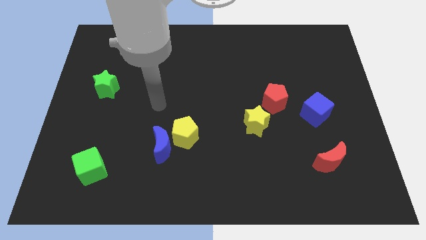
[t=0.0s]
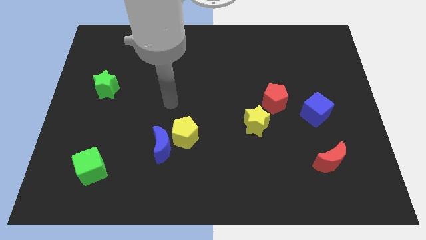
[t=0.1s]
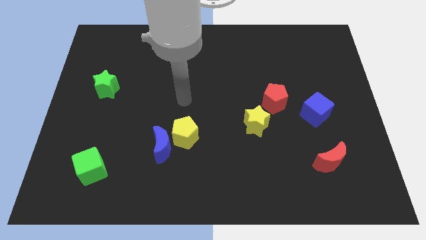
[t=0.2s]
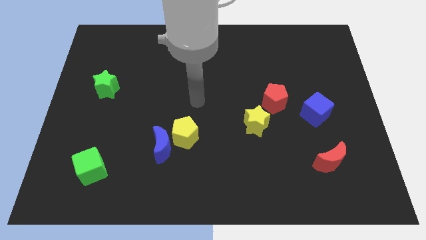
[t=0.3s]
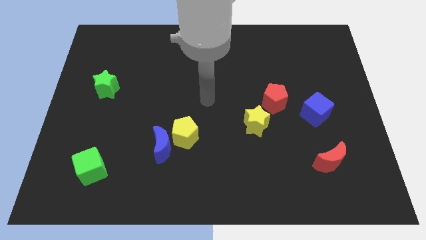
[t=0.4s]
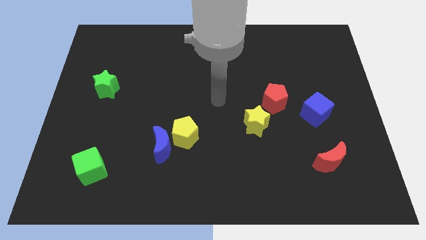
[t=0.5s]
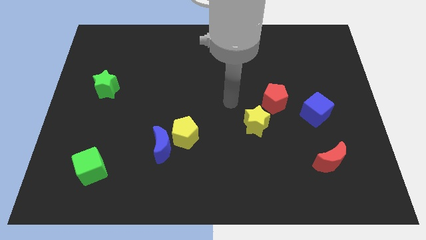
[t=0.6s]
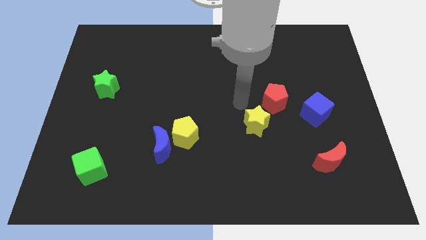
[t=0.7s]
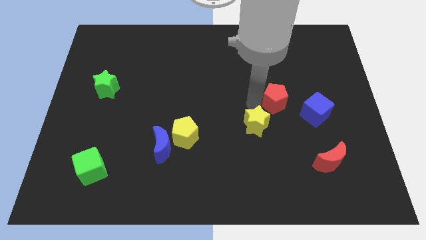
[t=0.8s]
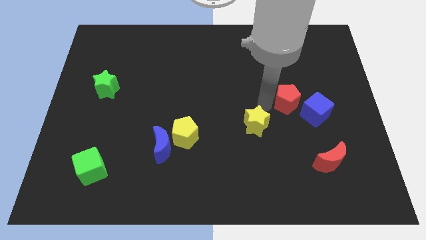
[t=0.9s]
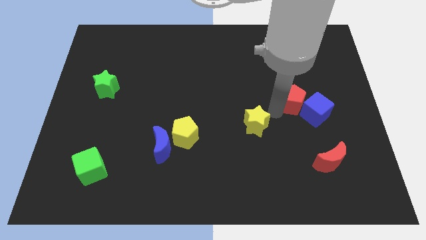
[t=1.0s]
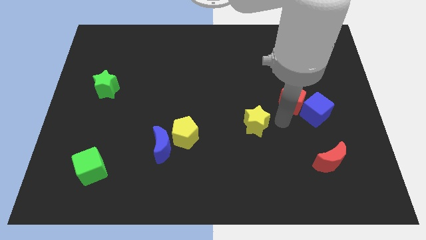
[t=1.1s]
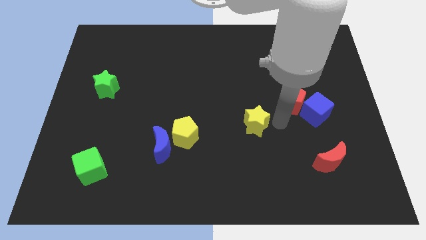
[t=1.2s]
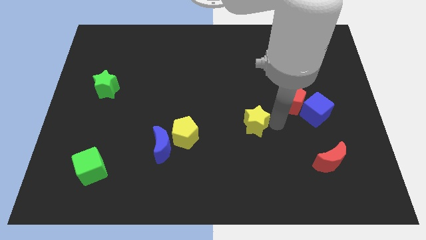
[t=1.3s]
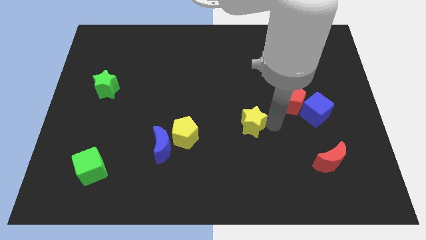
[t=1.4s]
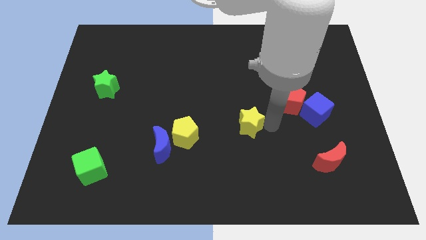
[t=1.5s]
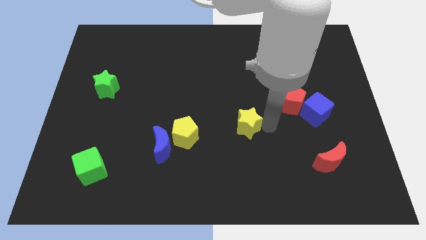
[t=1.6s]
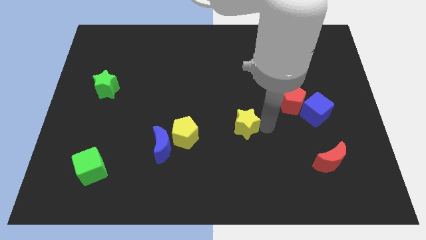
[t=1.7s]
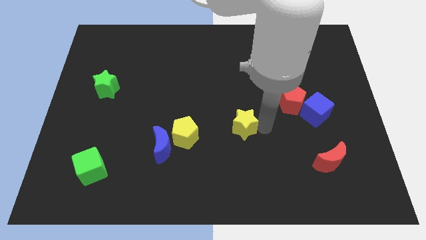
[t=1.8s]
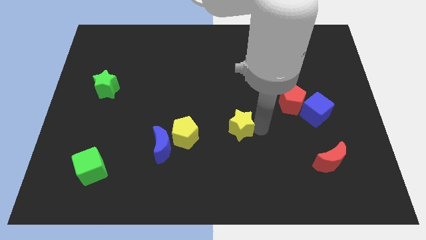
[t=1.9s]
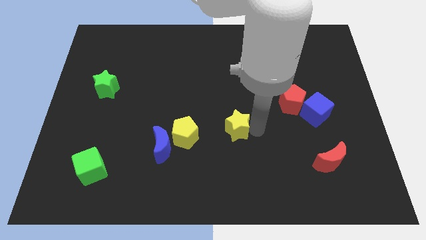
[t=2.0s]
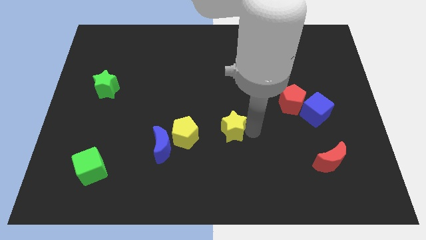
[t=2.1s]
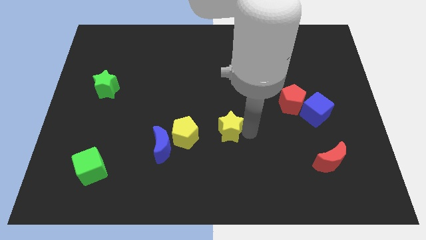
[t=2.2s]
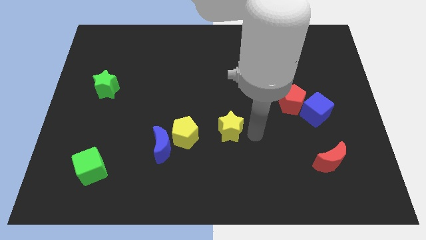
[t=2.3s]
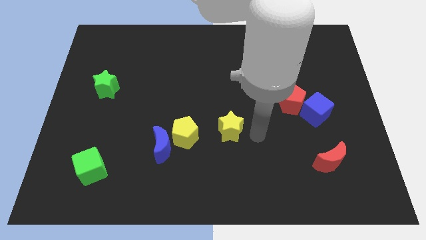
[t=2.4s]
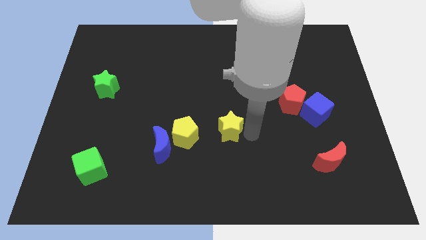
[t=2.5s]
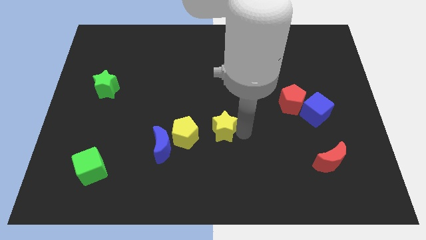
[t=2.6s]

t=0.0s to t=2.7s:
move the yellow star left a bit

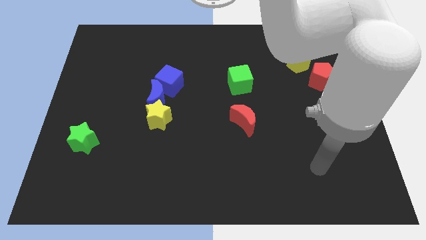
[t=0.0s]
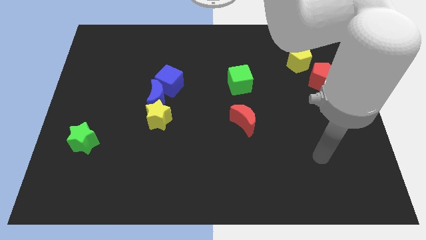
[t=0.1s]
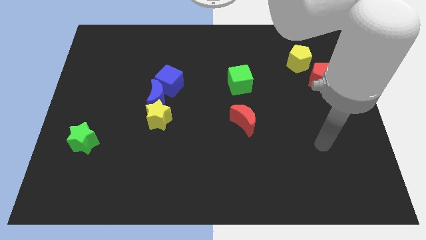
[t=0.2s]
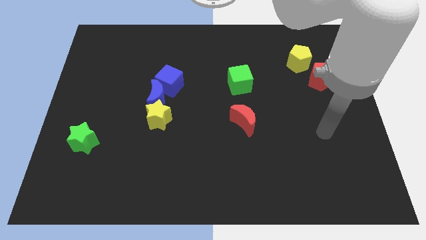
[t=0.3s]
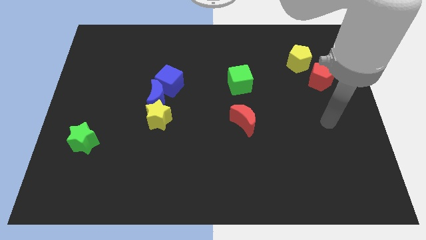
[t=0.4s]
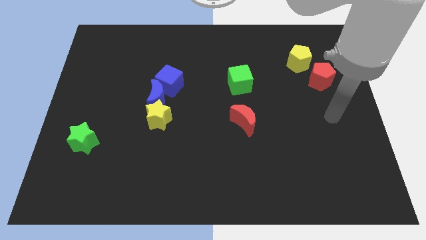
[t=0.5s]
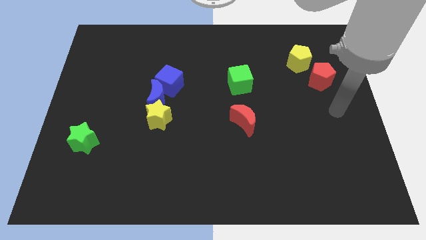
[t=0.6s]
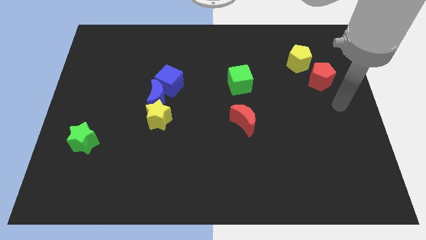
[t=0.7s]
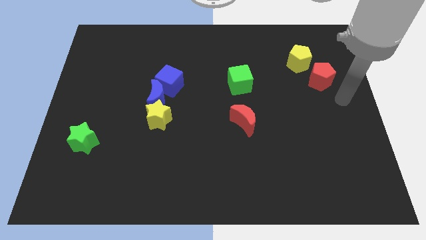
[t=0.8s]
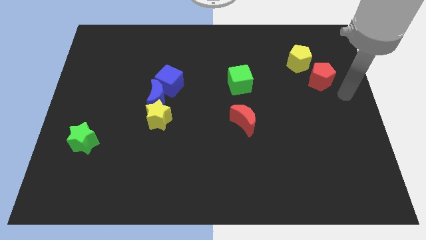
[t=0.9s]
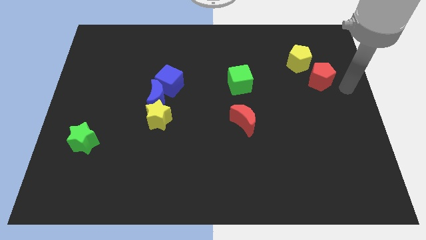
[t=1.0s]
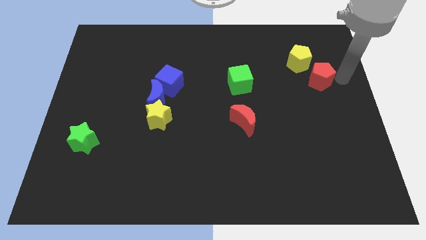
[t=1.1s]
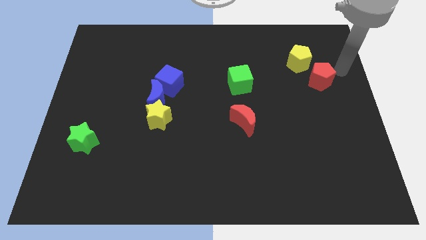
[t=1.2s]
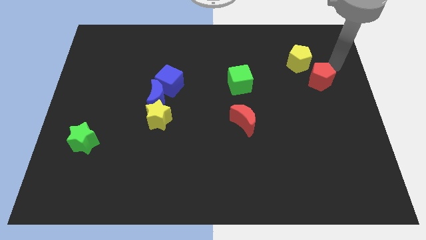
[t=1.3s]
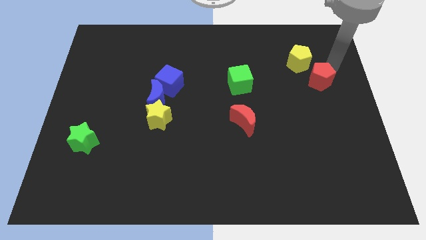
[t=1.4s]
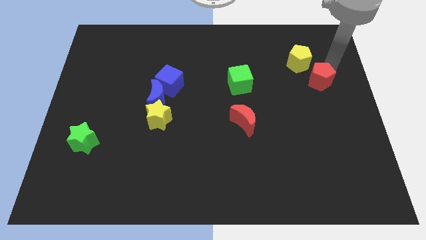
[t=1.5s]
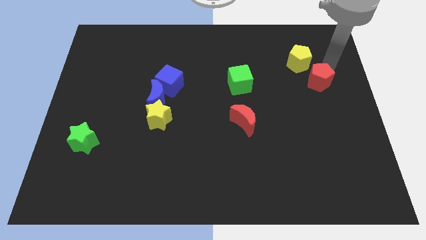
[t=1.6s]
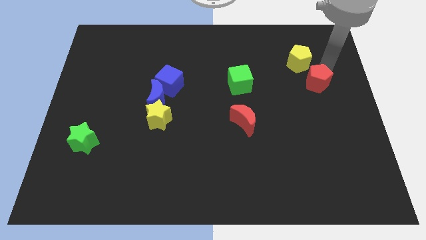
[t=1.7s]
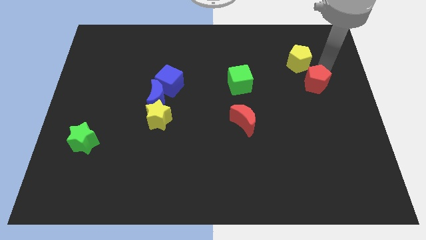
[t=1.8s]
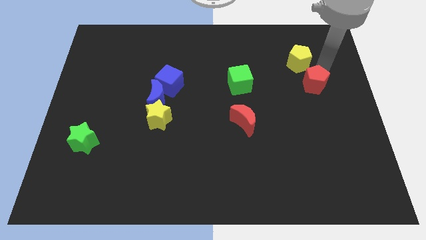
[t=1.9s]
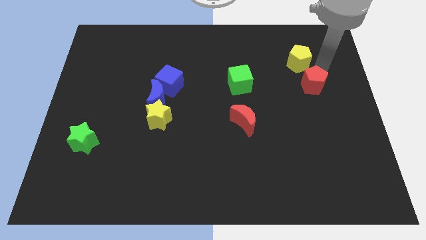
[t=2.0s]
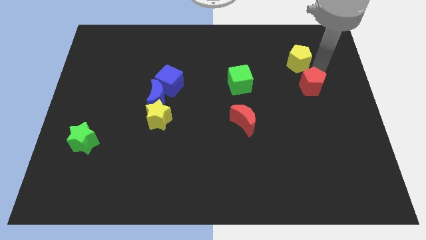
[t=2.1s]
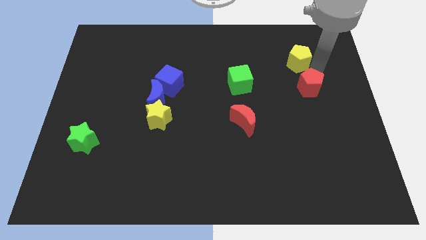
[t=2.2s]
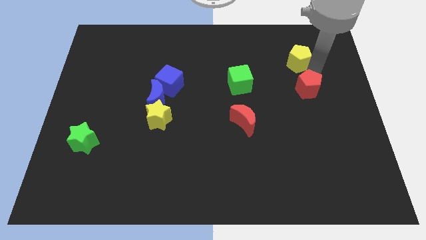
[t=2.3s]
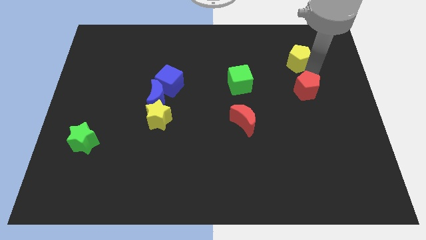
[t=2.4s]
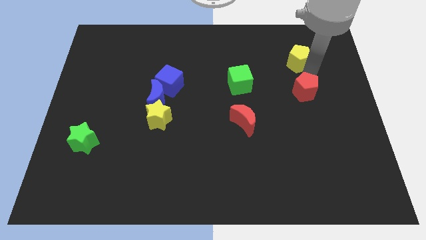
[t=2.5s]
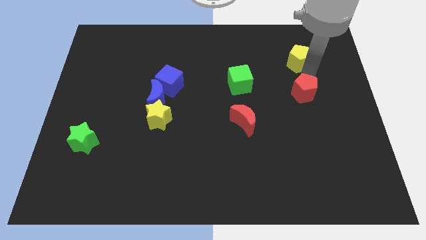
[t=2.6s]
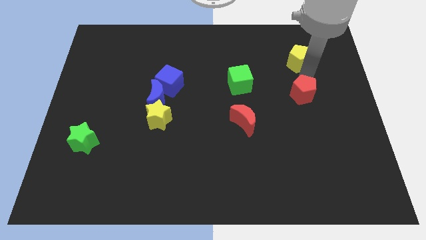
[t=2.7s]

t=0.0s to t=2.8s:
slightly slide the red pentagon diagonally downwards and to the left

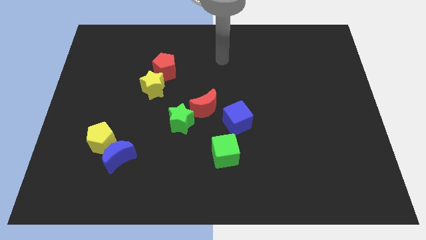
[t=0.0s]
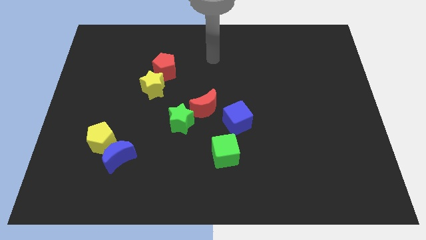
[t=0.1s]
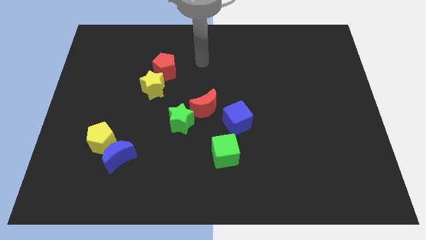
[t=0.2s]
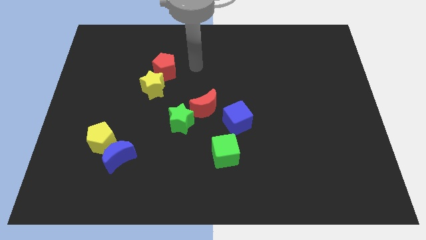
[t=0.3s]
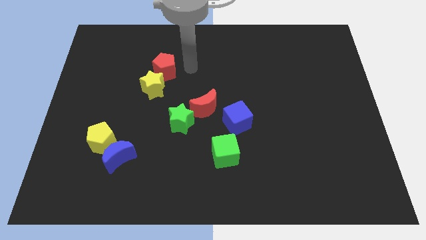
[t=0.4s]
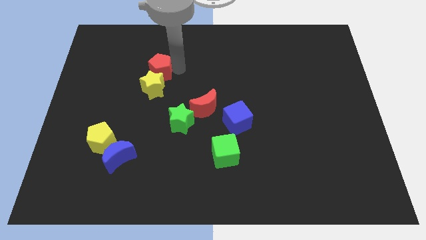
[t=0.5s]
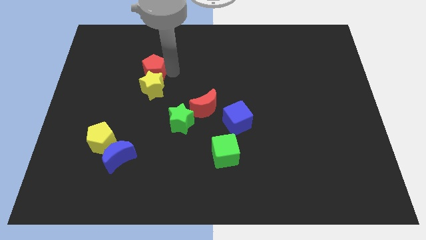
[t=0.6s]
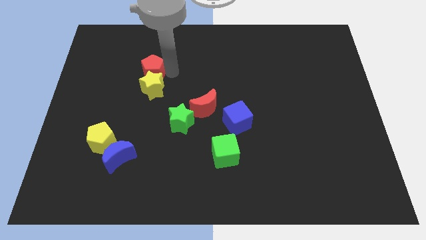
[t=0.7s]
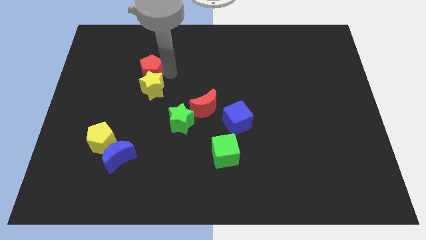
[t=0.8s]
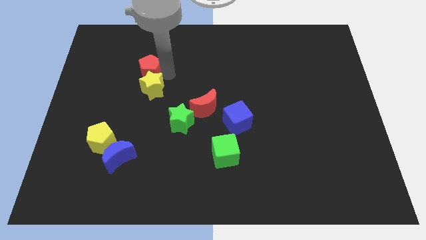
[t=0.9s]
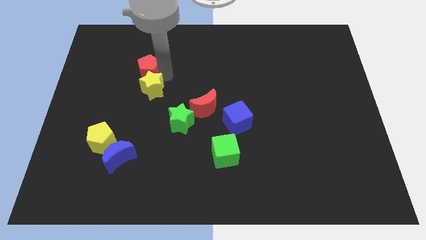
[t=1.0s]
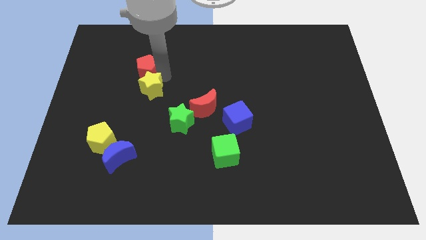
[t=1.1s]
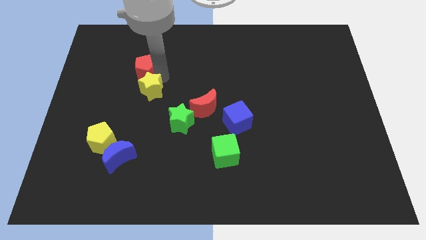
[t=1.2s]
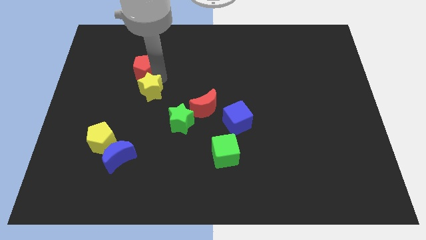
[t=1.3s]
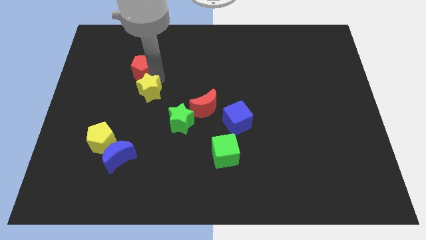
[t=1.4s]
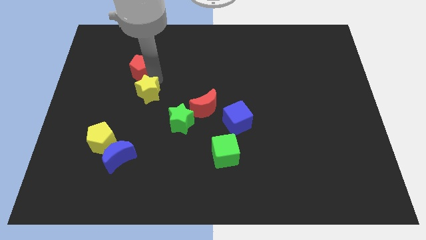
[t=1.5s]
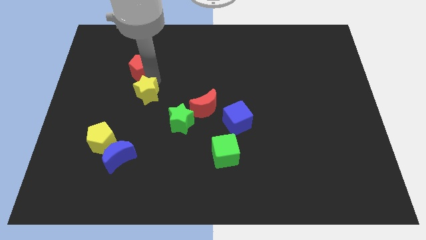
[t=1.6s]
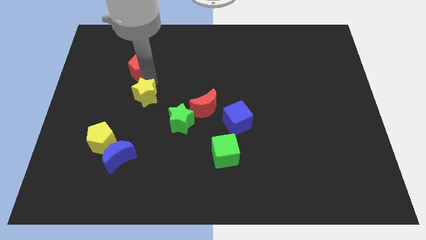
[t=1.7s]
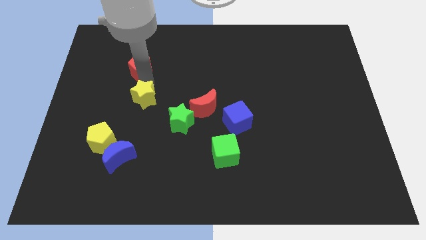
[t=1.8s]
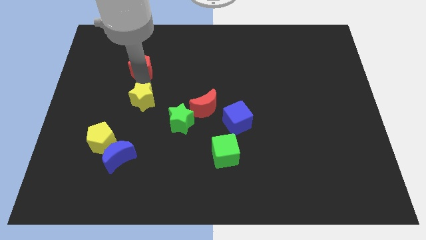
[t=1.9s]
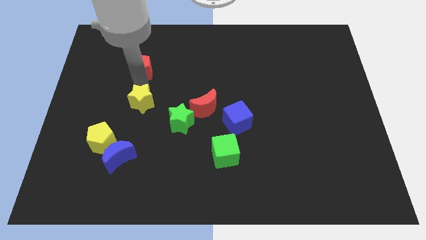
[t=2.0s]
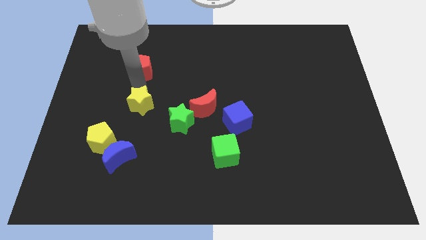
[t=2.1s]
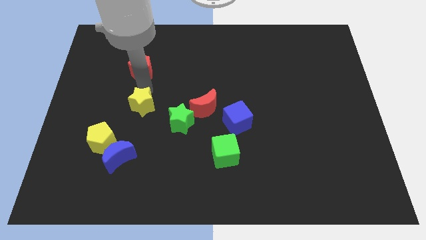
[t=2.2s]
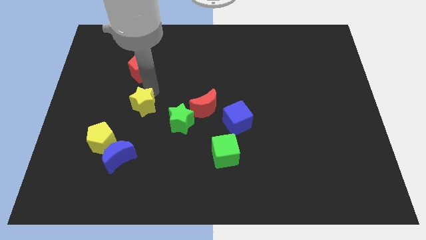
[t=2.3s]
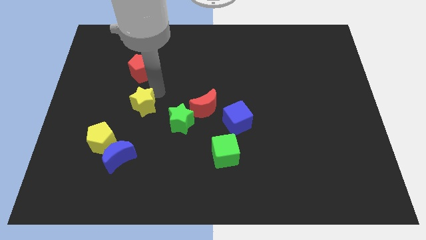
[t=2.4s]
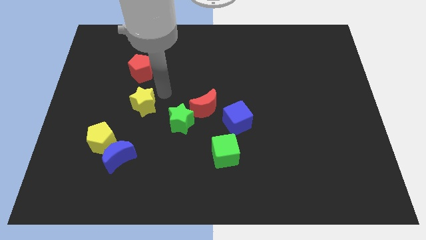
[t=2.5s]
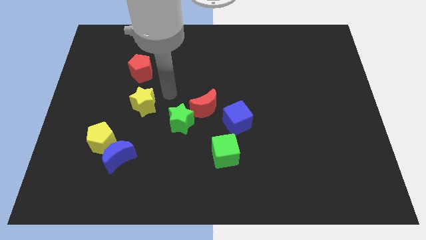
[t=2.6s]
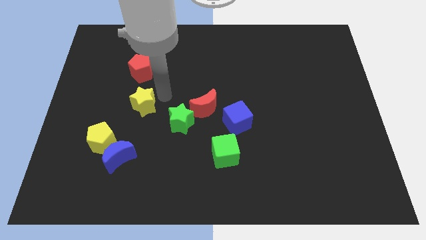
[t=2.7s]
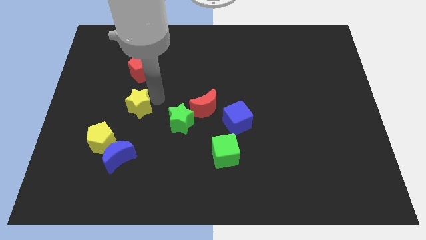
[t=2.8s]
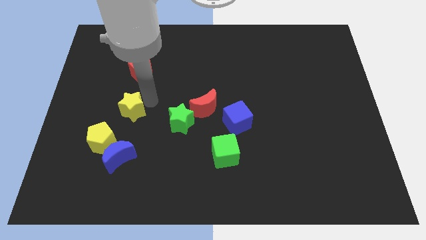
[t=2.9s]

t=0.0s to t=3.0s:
push the yellow star a bit down and to the left diagonally
